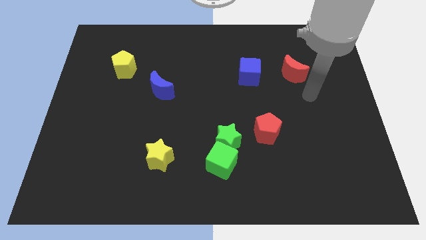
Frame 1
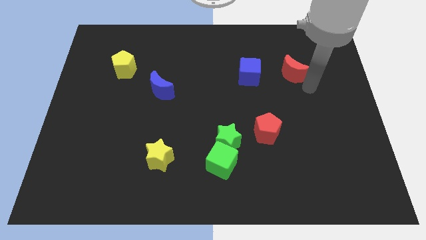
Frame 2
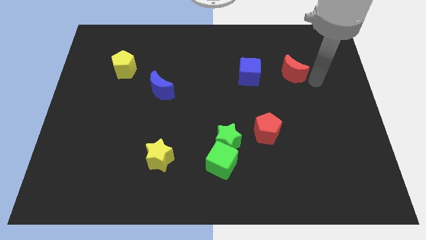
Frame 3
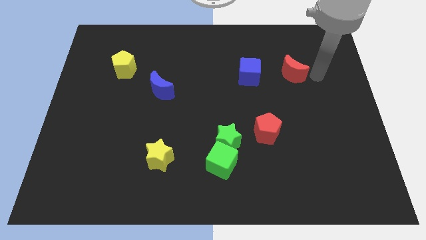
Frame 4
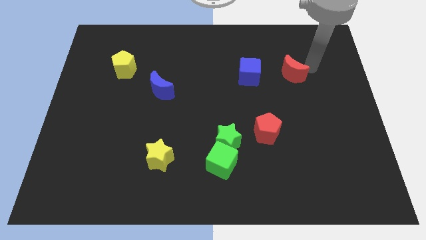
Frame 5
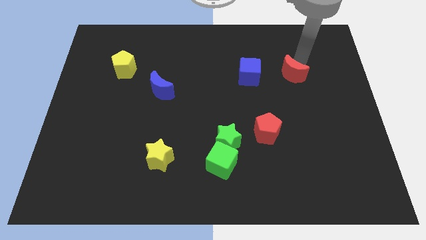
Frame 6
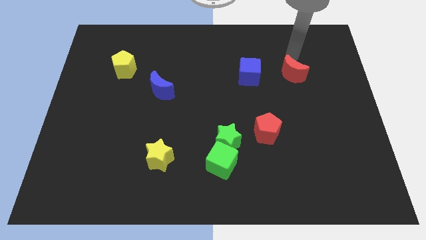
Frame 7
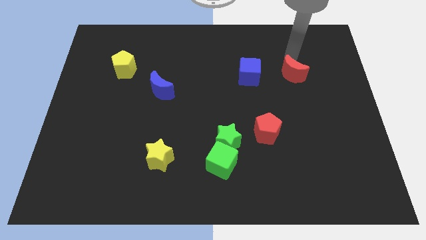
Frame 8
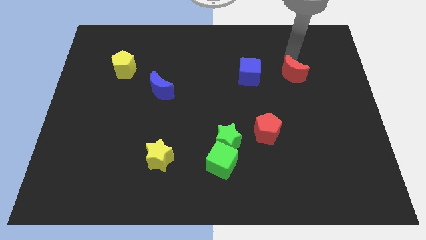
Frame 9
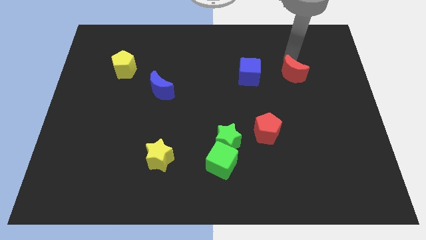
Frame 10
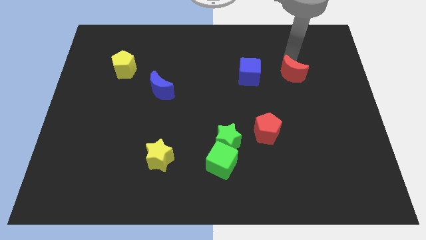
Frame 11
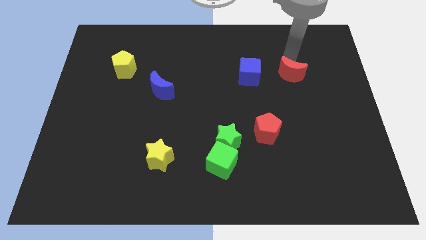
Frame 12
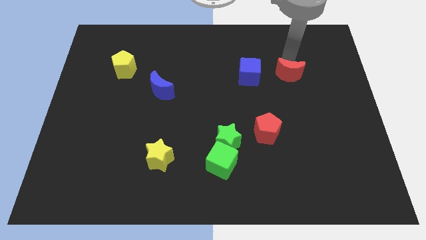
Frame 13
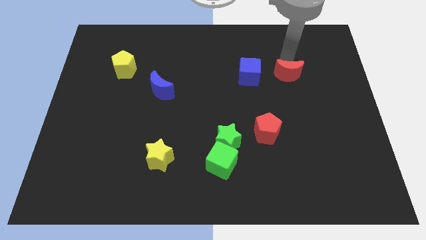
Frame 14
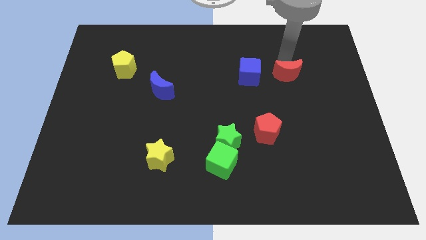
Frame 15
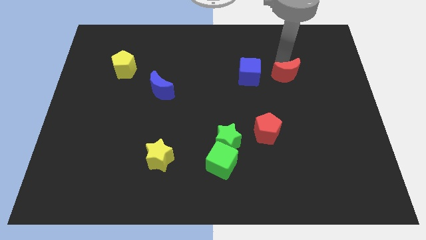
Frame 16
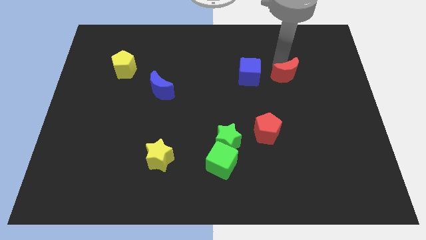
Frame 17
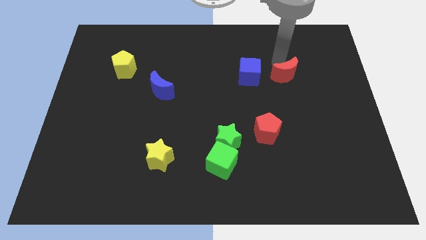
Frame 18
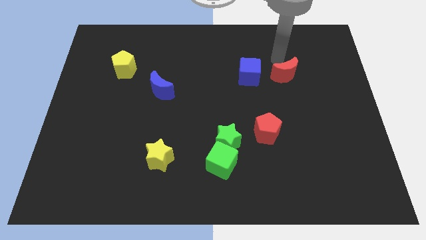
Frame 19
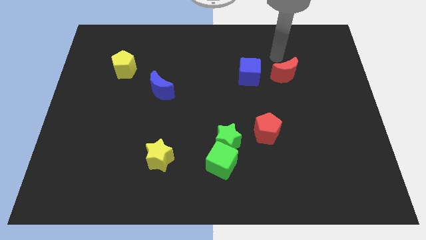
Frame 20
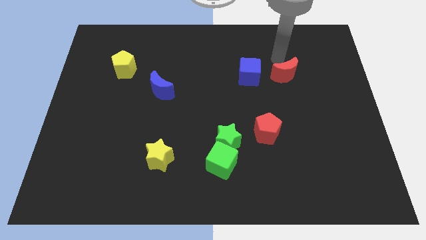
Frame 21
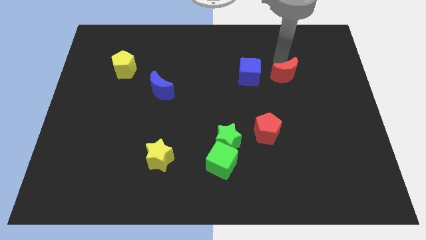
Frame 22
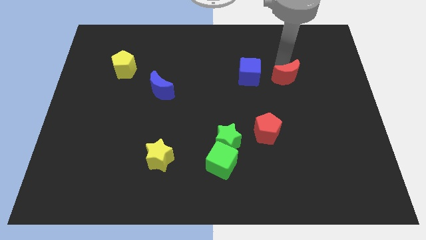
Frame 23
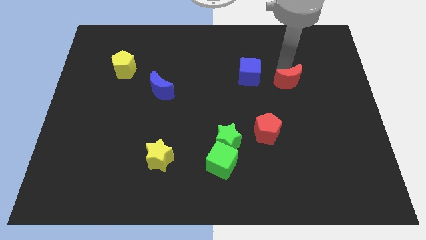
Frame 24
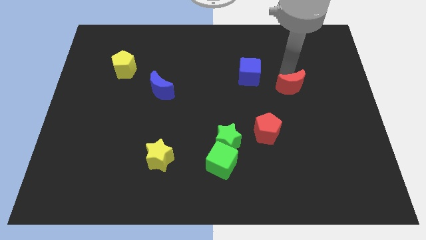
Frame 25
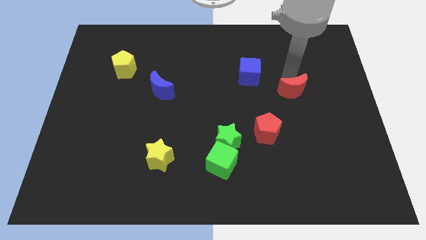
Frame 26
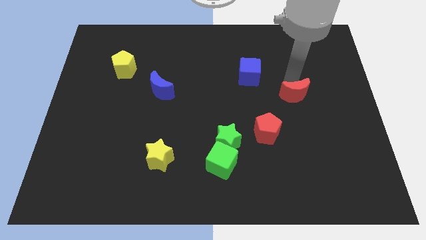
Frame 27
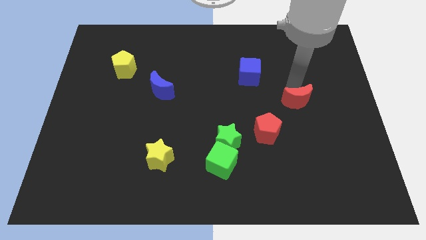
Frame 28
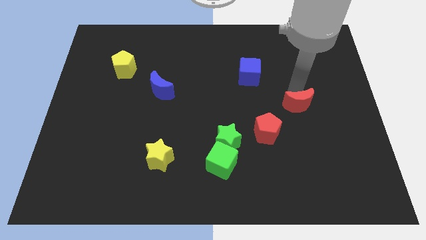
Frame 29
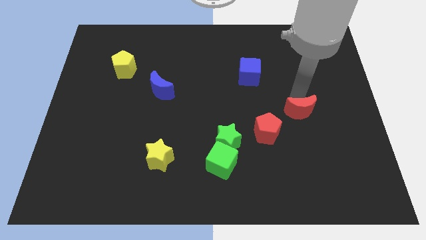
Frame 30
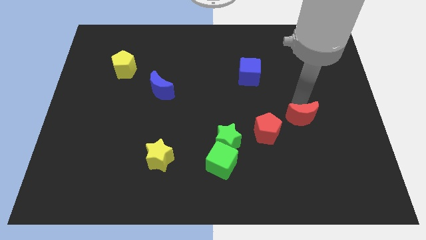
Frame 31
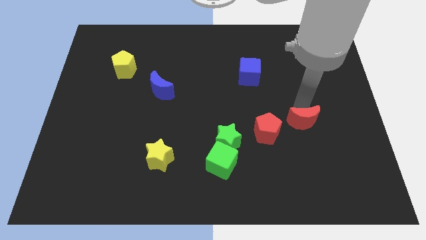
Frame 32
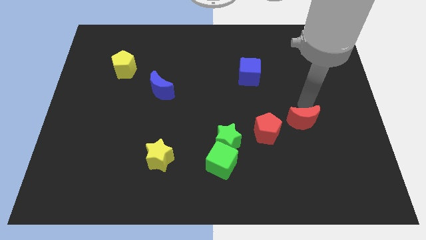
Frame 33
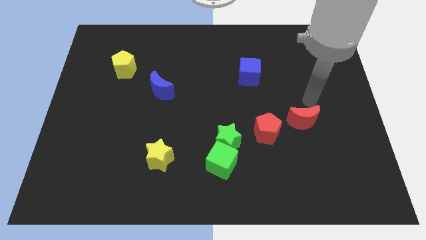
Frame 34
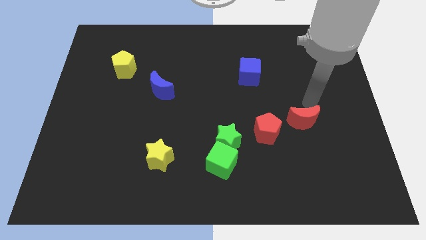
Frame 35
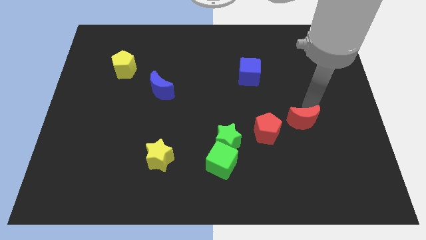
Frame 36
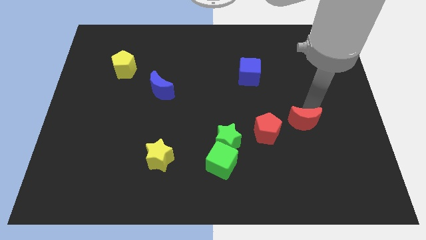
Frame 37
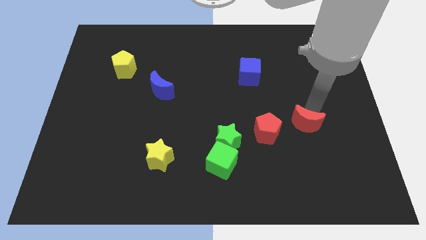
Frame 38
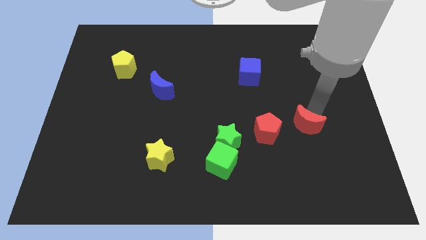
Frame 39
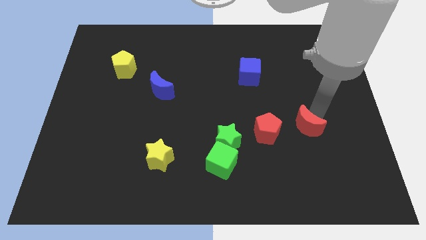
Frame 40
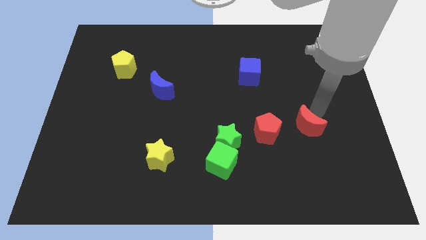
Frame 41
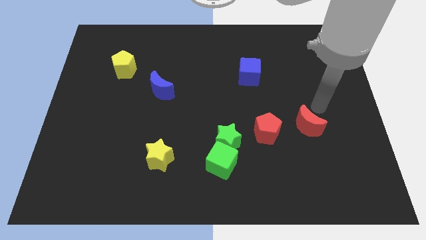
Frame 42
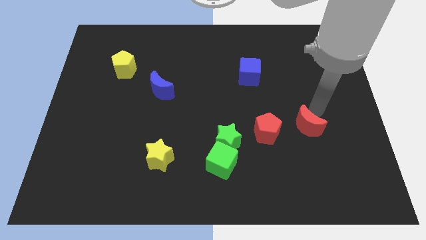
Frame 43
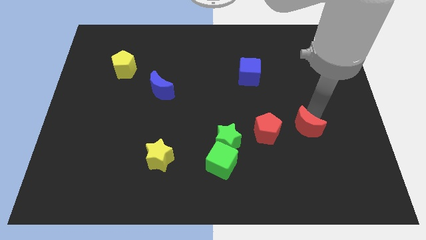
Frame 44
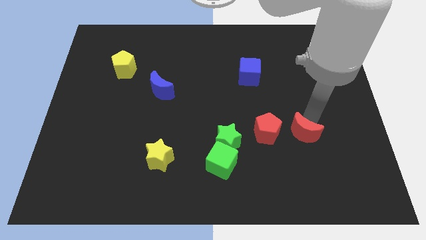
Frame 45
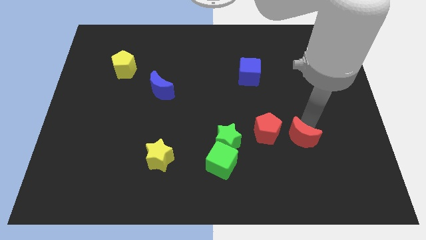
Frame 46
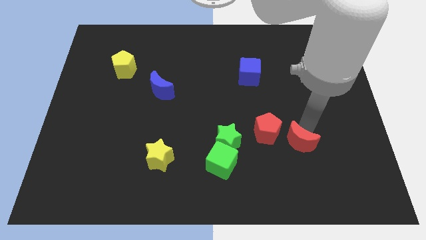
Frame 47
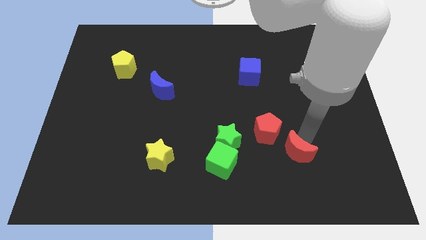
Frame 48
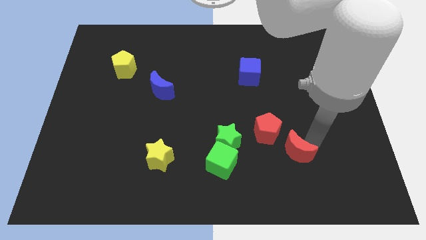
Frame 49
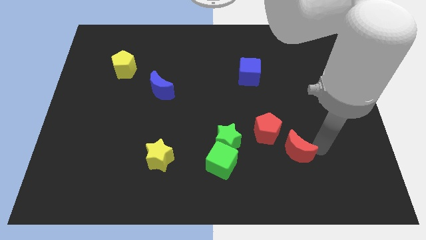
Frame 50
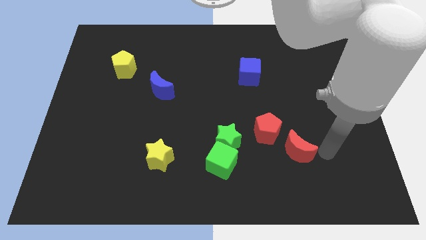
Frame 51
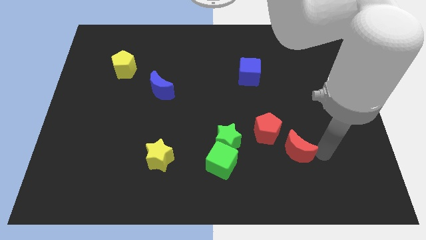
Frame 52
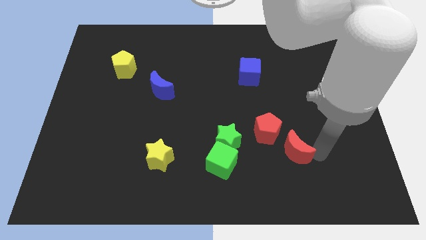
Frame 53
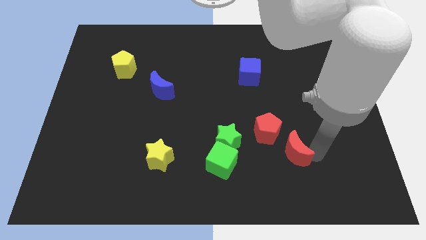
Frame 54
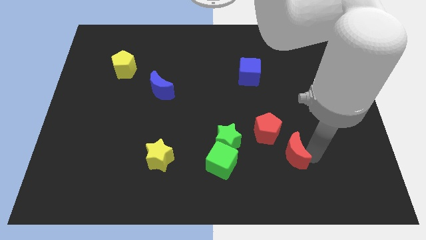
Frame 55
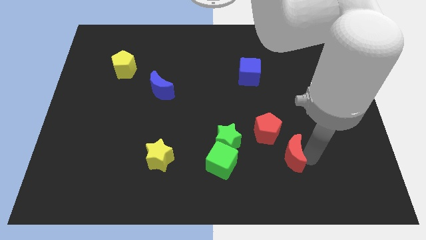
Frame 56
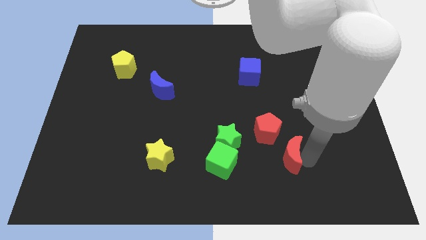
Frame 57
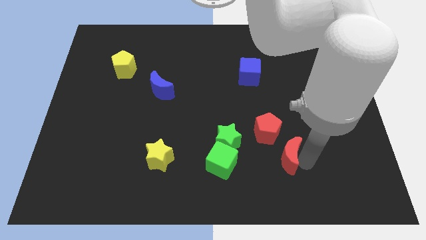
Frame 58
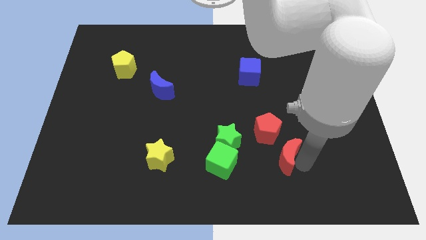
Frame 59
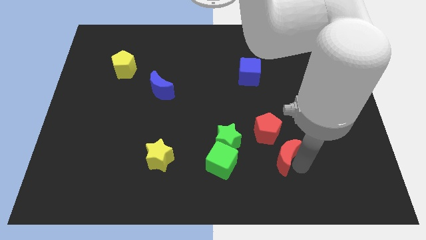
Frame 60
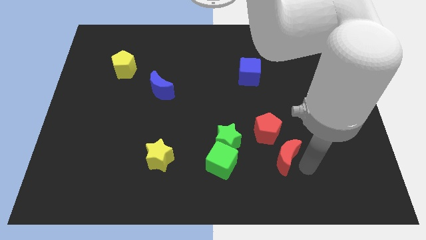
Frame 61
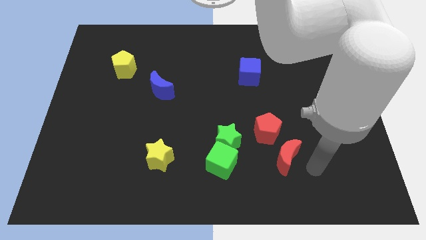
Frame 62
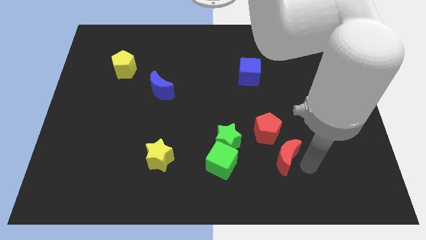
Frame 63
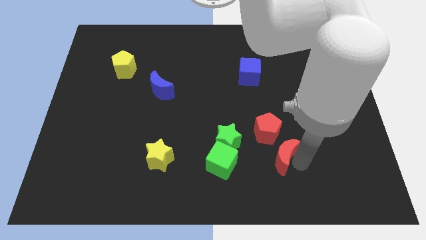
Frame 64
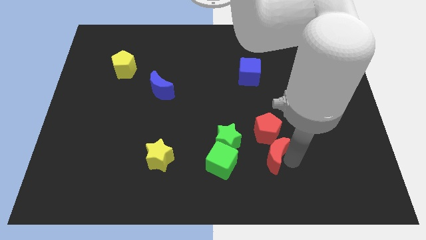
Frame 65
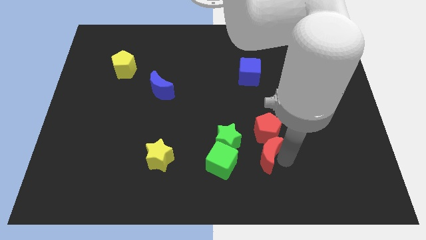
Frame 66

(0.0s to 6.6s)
move the red moon to the bottom left side of the red pentagon
